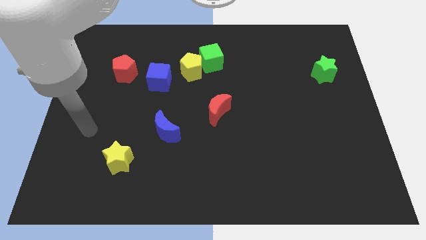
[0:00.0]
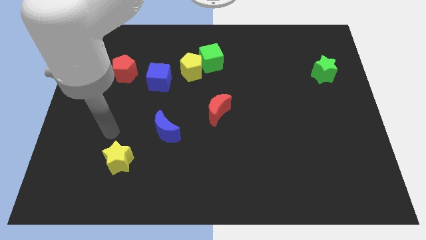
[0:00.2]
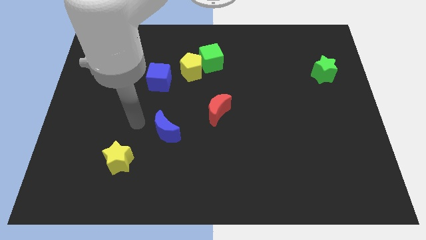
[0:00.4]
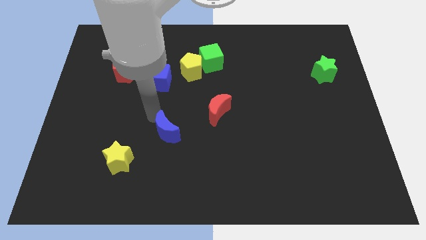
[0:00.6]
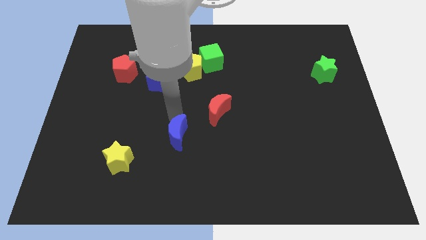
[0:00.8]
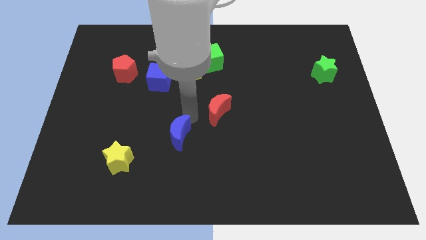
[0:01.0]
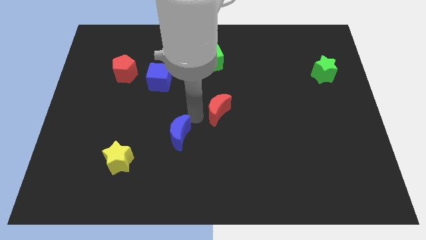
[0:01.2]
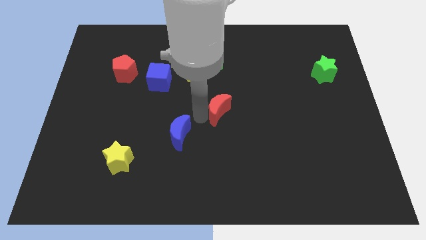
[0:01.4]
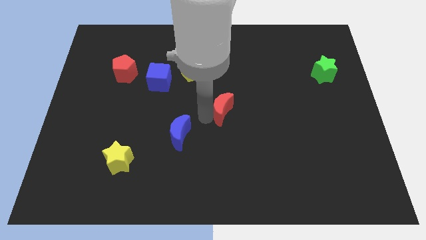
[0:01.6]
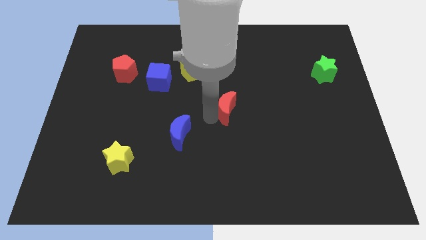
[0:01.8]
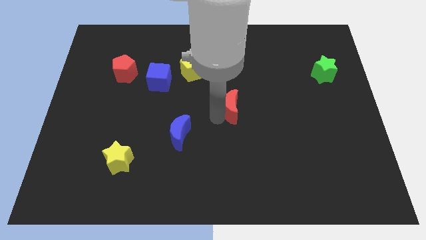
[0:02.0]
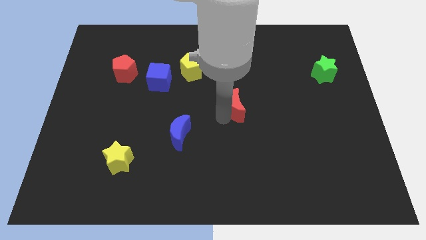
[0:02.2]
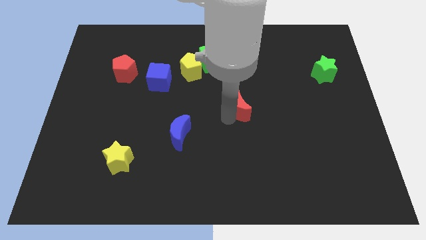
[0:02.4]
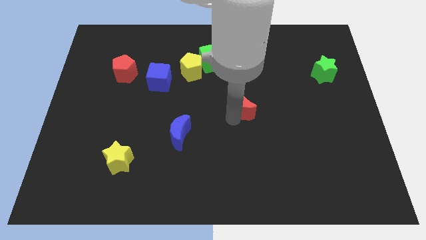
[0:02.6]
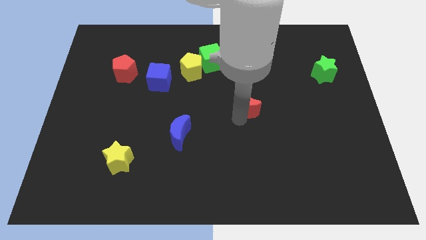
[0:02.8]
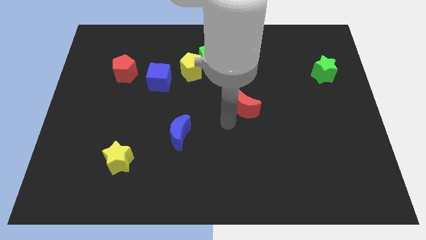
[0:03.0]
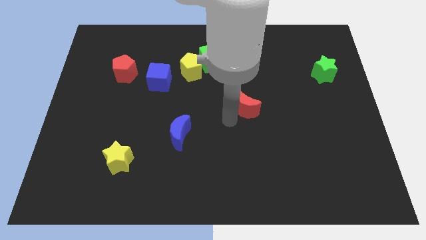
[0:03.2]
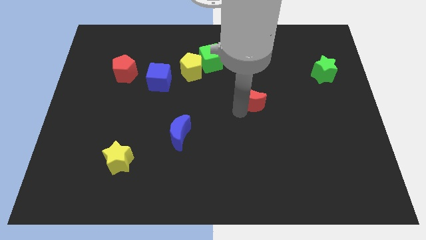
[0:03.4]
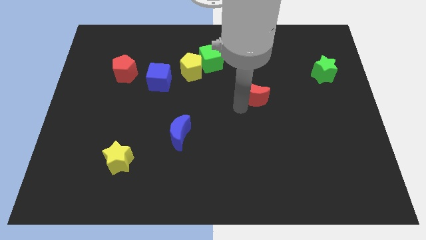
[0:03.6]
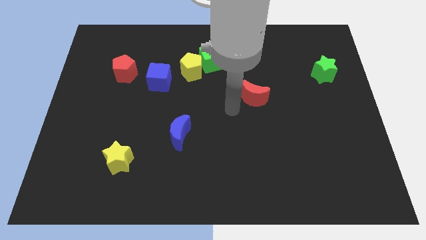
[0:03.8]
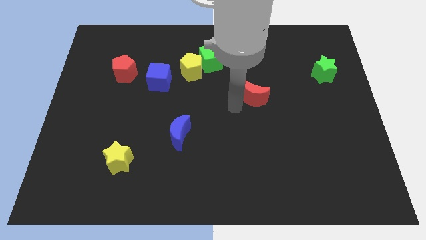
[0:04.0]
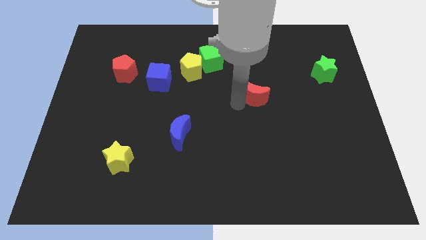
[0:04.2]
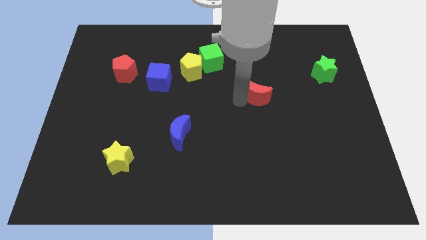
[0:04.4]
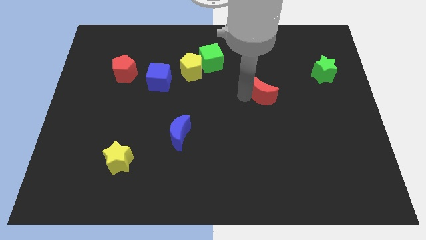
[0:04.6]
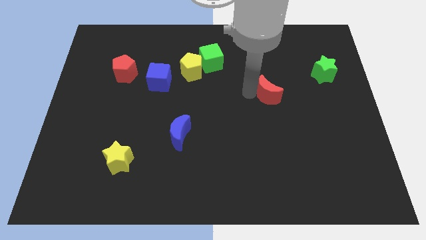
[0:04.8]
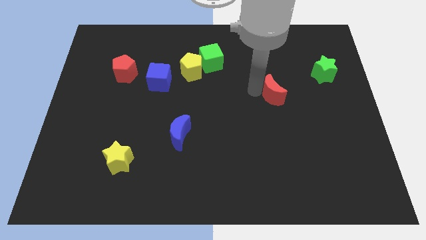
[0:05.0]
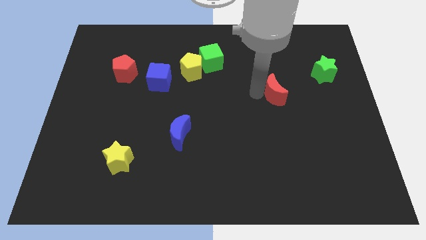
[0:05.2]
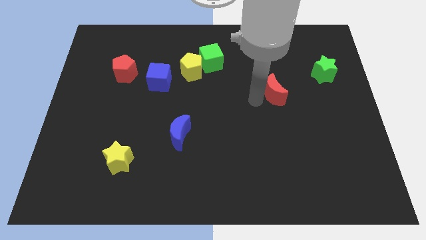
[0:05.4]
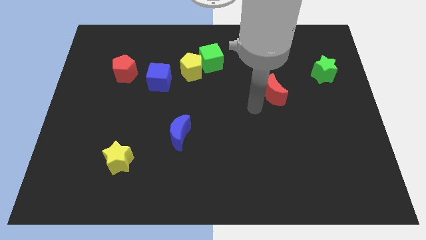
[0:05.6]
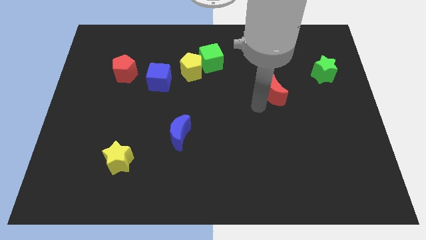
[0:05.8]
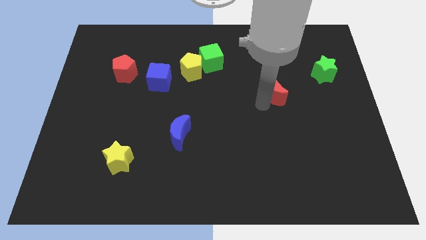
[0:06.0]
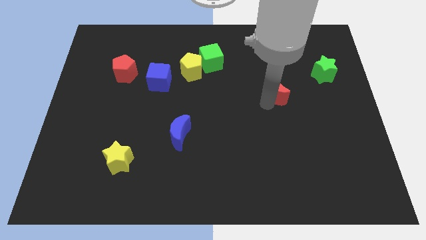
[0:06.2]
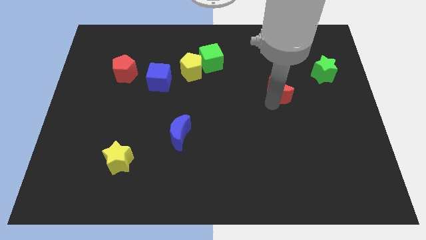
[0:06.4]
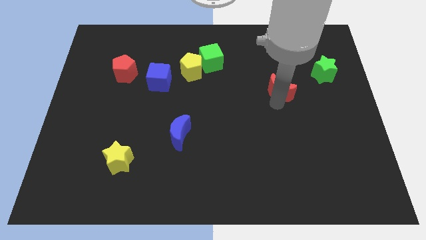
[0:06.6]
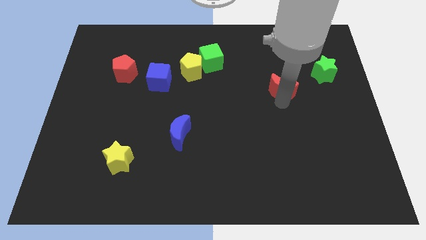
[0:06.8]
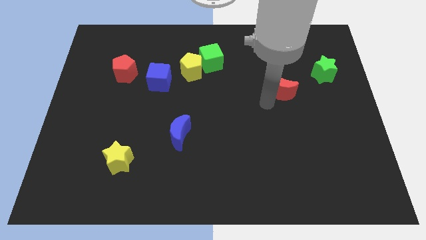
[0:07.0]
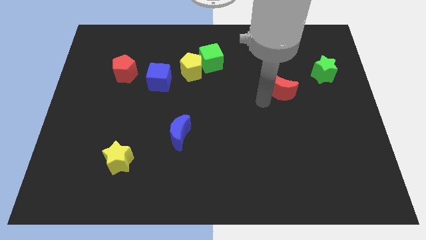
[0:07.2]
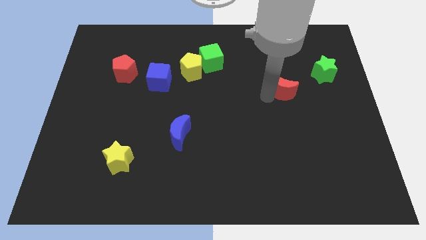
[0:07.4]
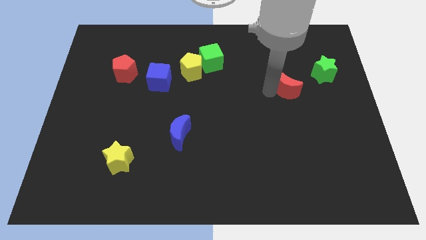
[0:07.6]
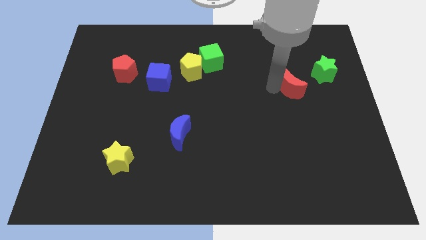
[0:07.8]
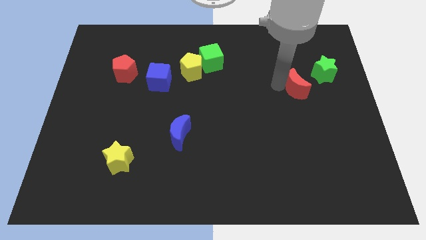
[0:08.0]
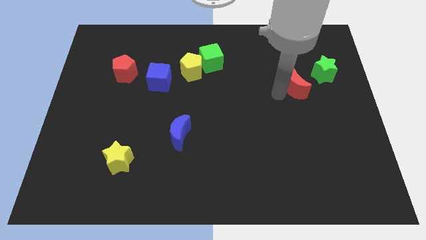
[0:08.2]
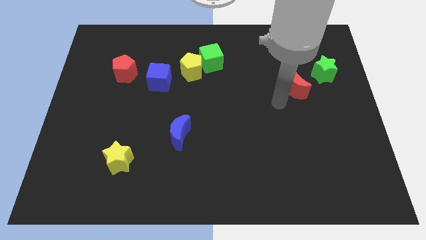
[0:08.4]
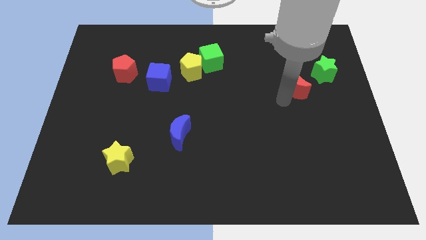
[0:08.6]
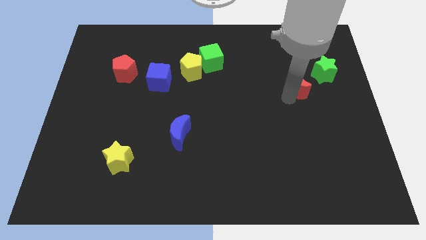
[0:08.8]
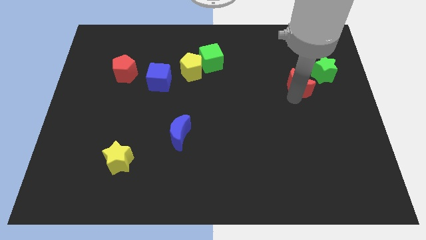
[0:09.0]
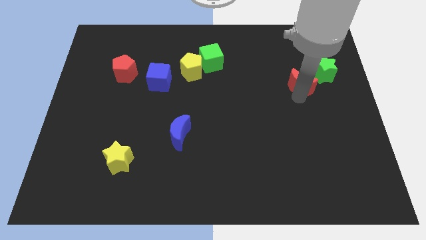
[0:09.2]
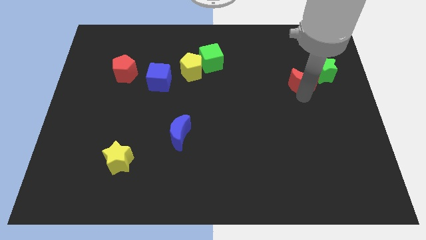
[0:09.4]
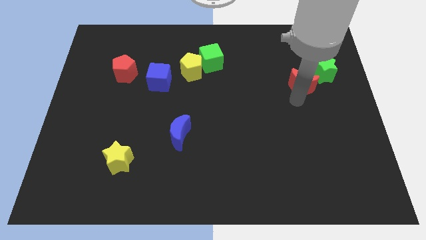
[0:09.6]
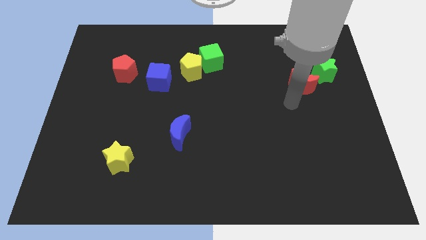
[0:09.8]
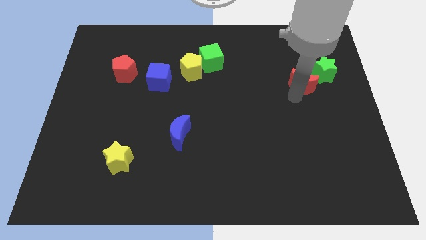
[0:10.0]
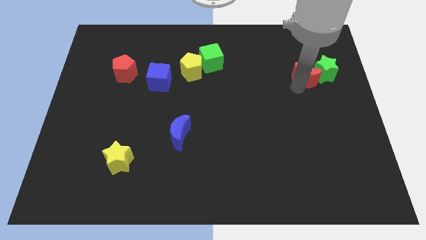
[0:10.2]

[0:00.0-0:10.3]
move the red moon to the green star

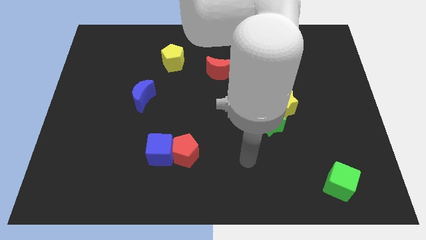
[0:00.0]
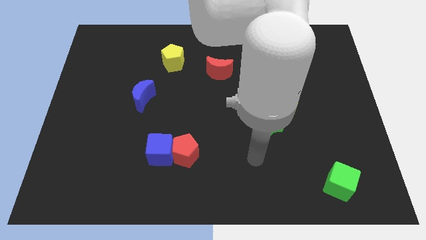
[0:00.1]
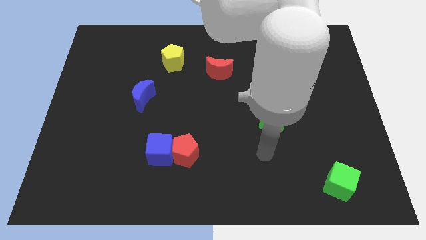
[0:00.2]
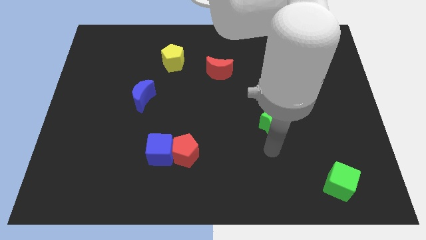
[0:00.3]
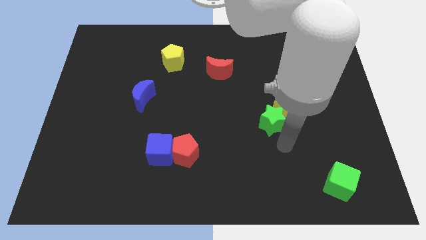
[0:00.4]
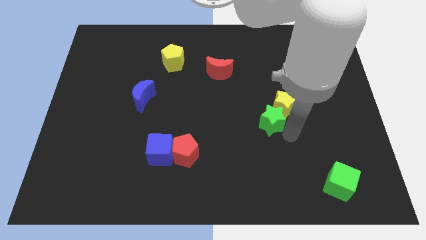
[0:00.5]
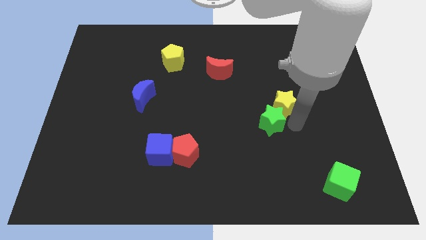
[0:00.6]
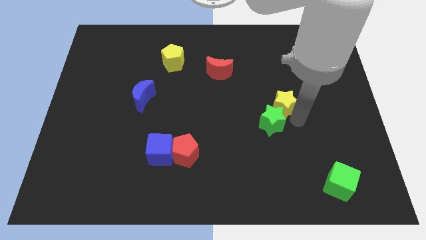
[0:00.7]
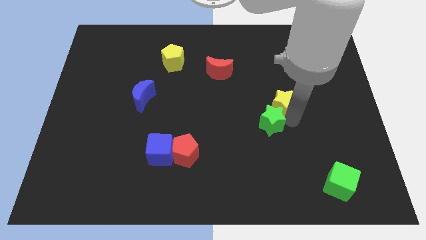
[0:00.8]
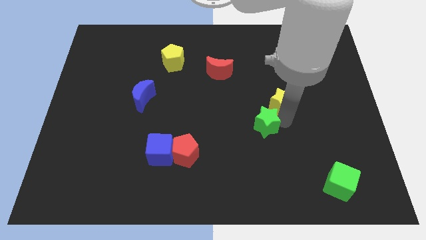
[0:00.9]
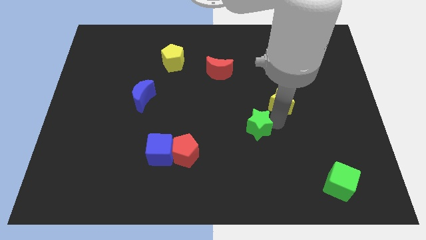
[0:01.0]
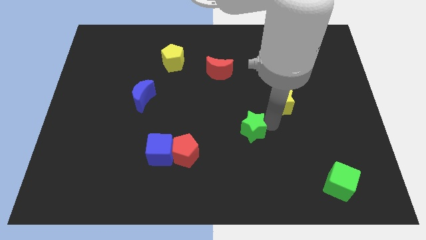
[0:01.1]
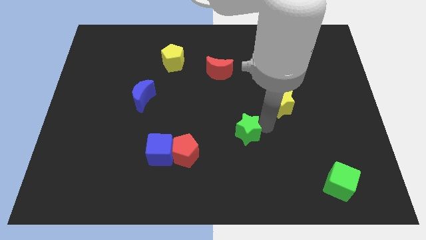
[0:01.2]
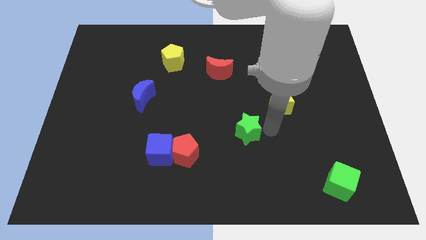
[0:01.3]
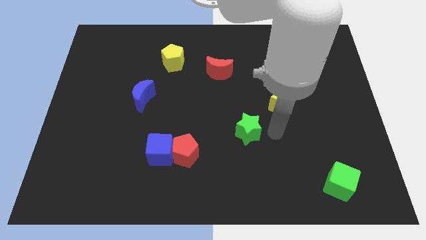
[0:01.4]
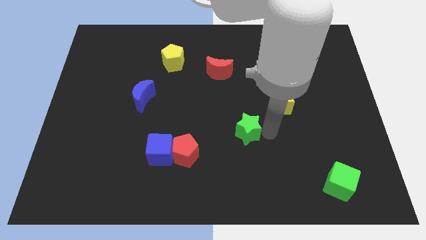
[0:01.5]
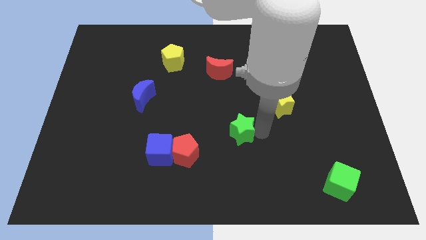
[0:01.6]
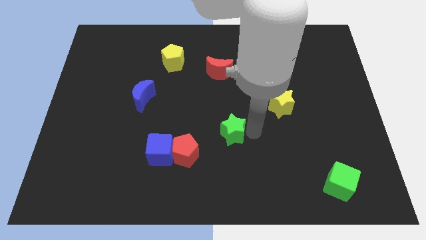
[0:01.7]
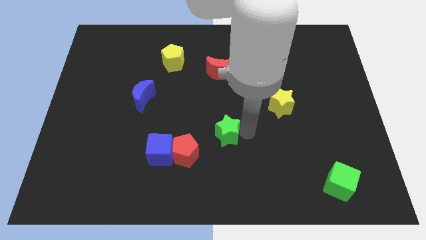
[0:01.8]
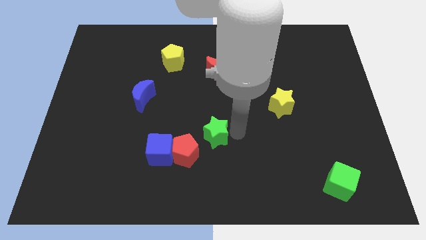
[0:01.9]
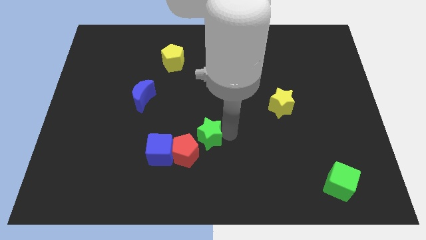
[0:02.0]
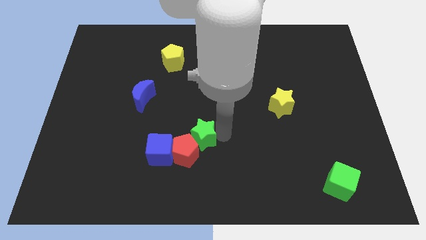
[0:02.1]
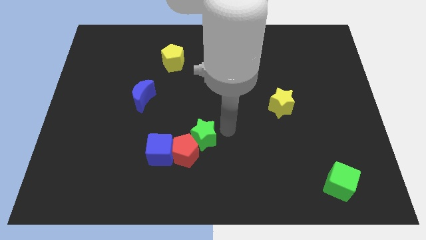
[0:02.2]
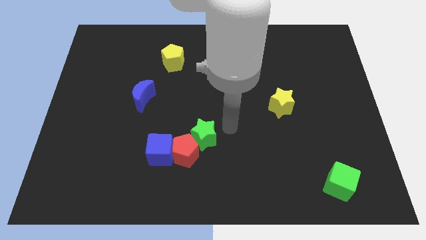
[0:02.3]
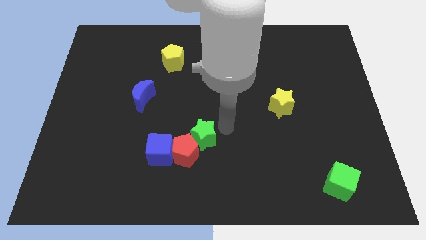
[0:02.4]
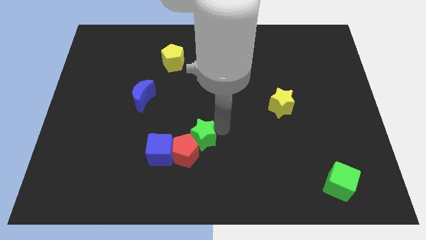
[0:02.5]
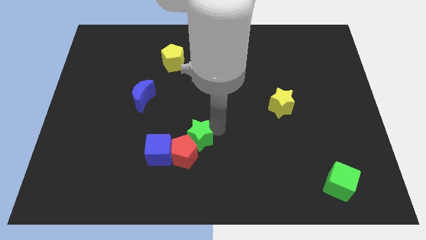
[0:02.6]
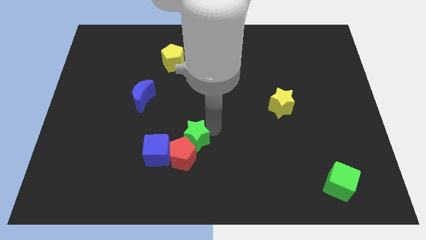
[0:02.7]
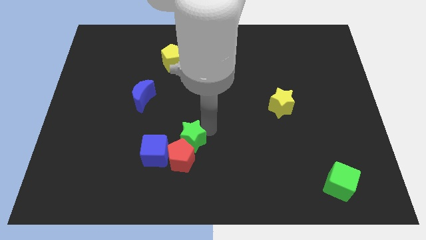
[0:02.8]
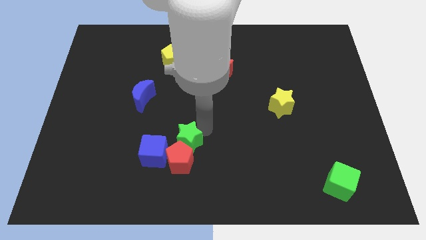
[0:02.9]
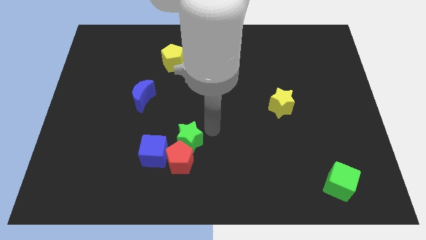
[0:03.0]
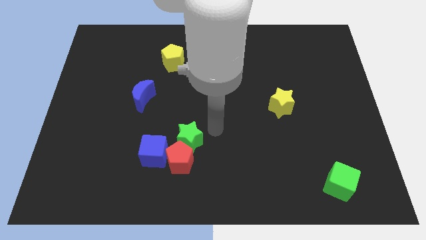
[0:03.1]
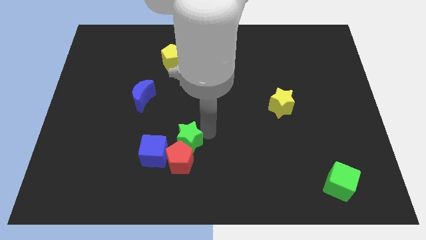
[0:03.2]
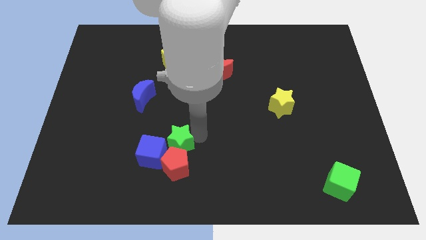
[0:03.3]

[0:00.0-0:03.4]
slide the green star next to the blue cube
